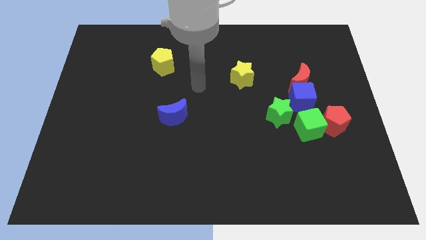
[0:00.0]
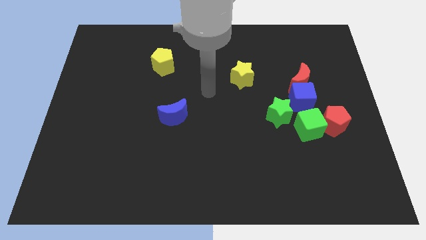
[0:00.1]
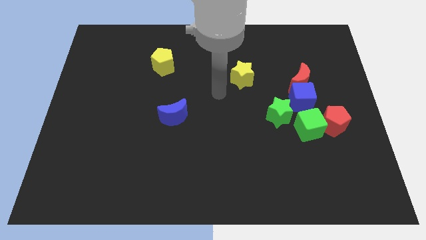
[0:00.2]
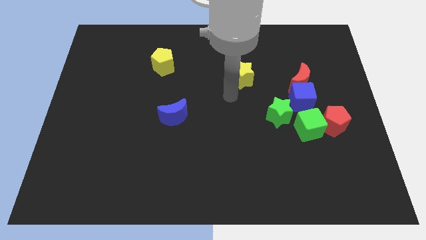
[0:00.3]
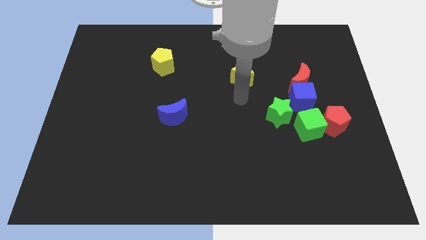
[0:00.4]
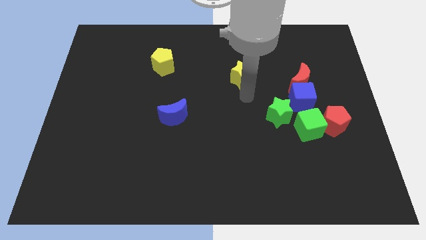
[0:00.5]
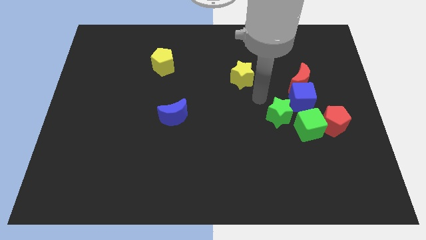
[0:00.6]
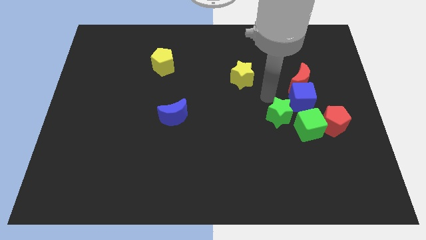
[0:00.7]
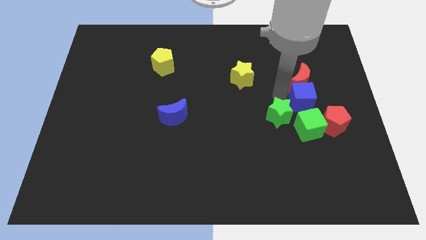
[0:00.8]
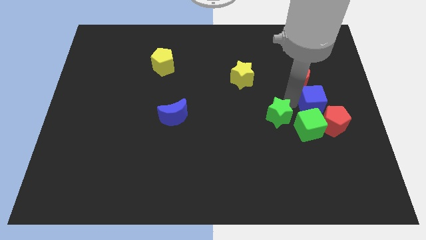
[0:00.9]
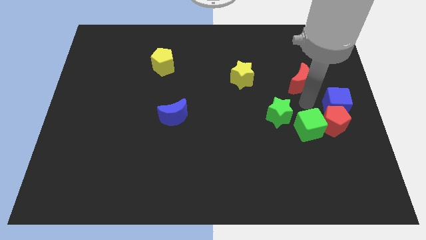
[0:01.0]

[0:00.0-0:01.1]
move the red moon away from the blue cube

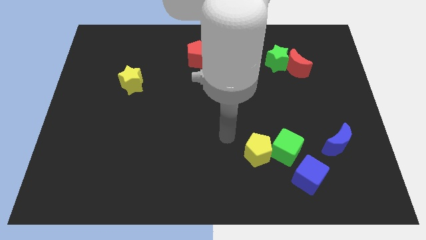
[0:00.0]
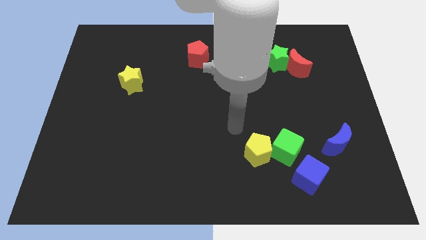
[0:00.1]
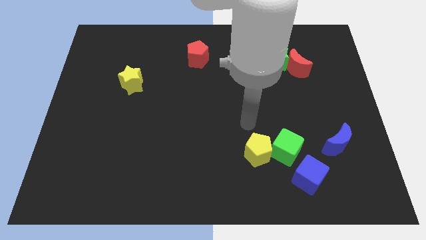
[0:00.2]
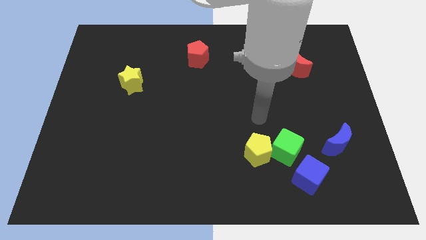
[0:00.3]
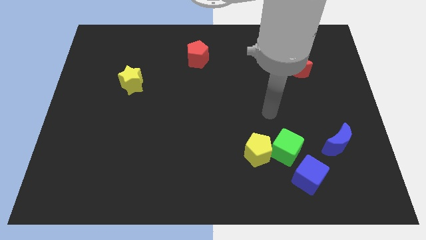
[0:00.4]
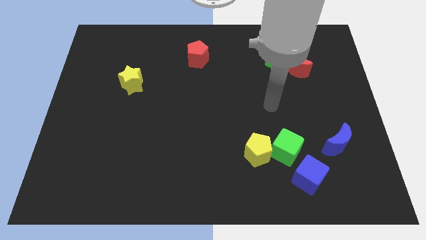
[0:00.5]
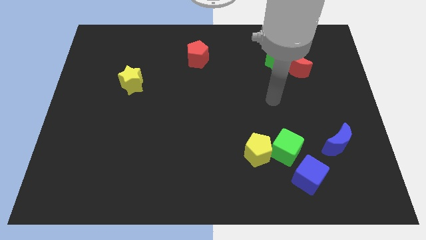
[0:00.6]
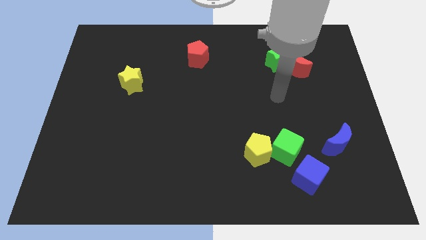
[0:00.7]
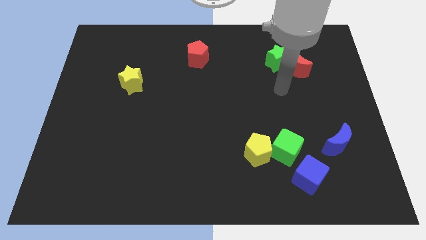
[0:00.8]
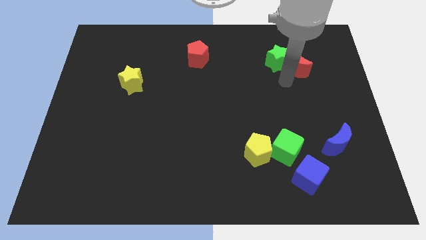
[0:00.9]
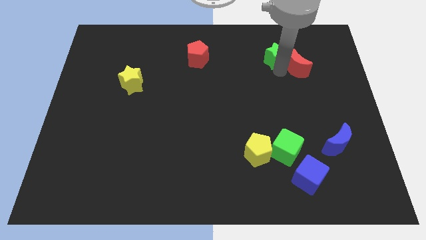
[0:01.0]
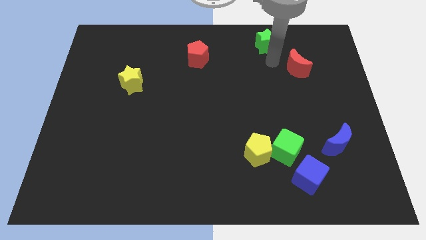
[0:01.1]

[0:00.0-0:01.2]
pull the red moon apart from the green star

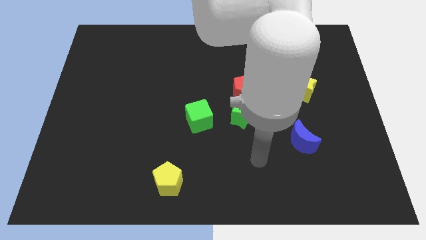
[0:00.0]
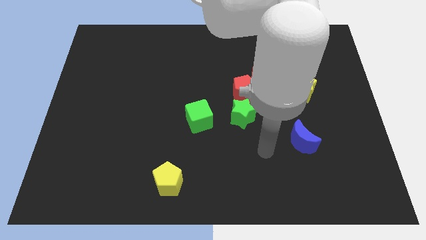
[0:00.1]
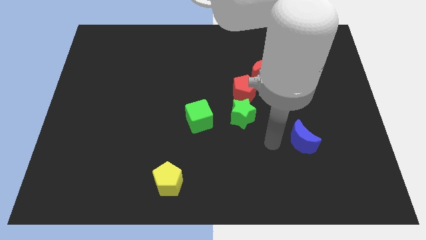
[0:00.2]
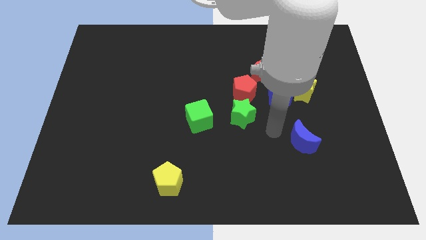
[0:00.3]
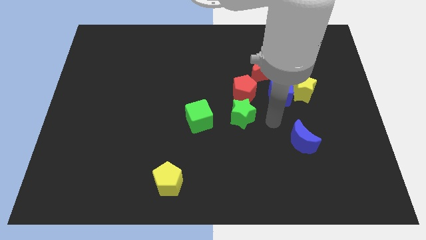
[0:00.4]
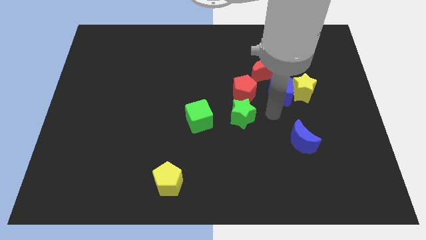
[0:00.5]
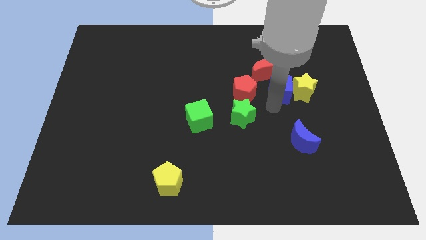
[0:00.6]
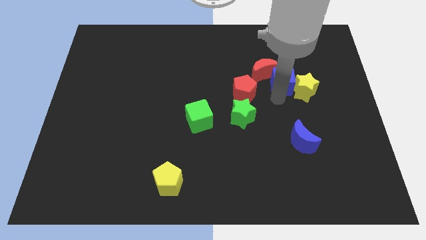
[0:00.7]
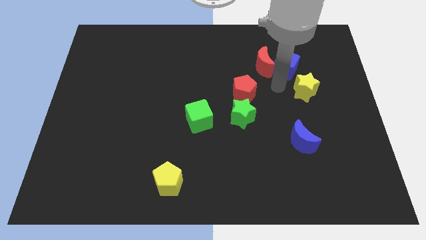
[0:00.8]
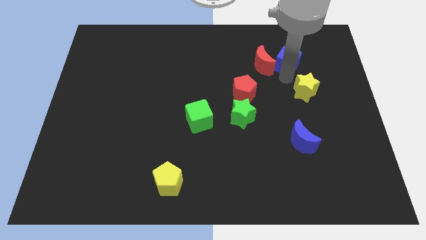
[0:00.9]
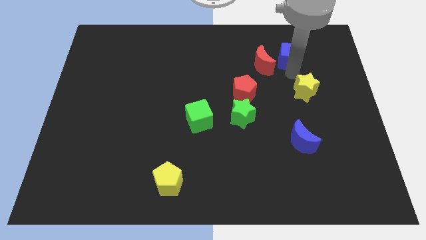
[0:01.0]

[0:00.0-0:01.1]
separate the yellow star from the blue cube

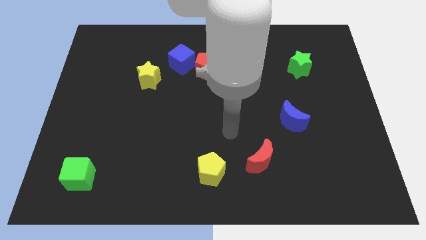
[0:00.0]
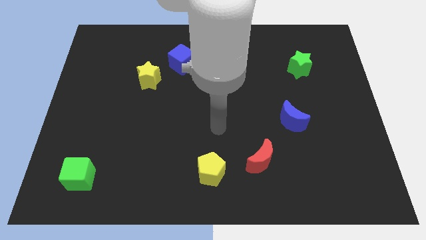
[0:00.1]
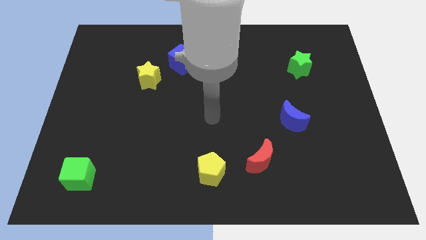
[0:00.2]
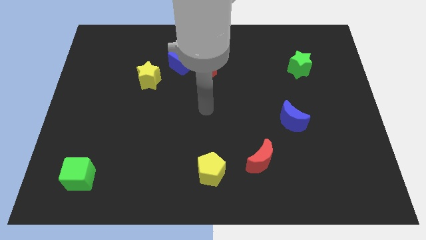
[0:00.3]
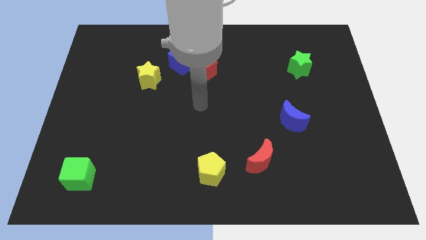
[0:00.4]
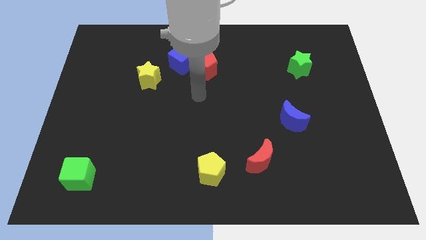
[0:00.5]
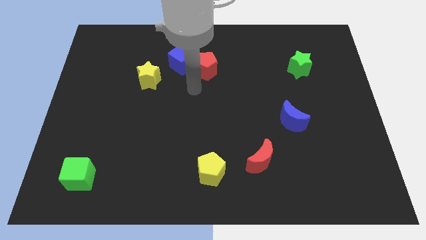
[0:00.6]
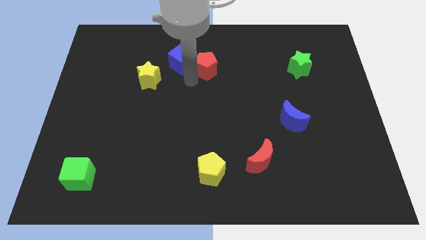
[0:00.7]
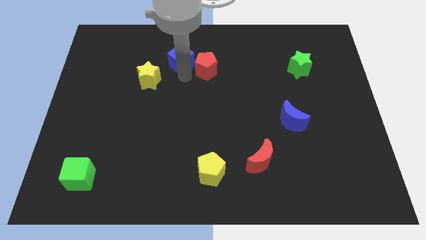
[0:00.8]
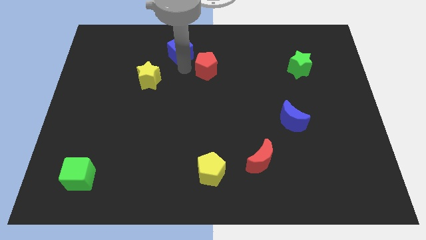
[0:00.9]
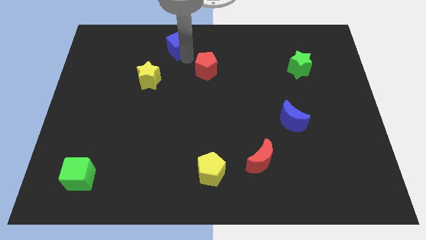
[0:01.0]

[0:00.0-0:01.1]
move the red pentagon away from the blue cube

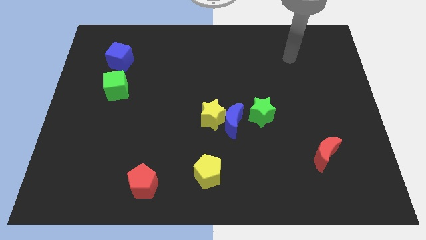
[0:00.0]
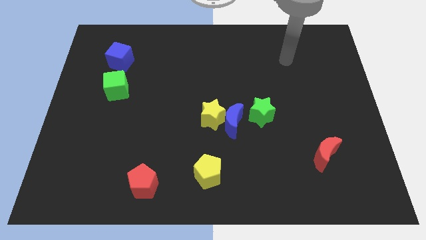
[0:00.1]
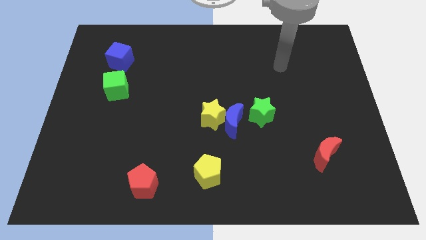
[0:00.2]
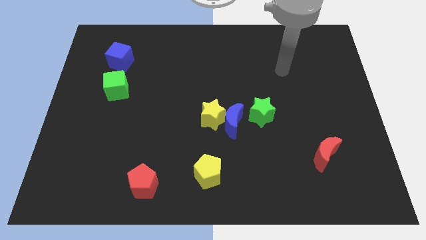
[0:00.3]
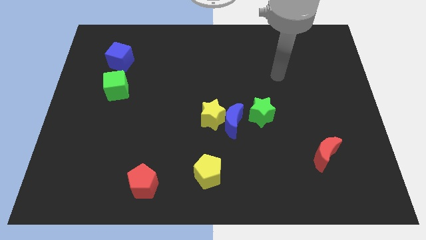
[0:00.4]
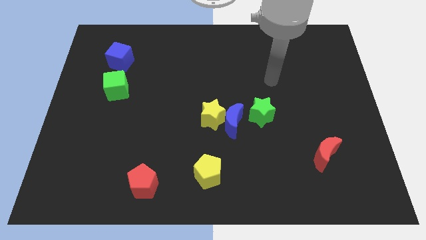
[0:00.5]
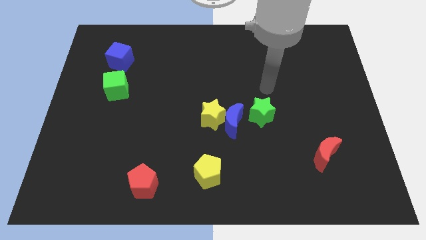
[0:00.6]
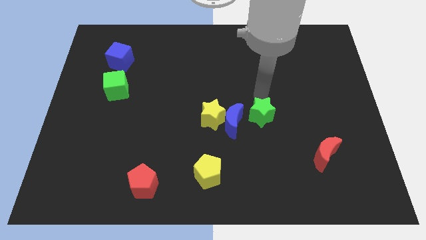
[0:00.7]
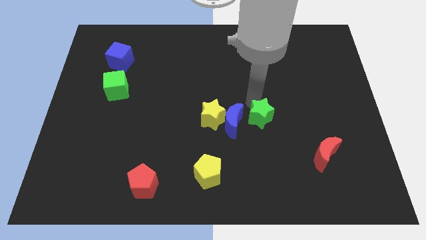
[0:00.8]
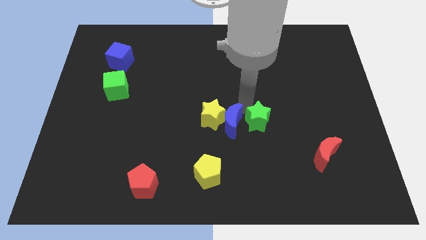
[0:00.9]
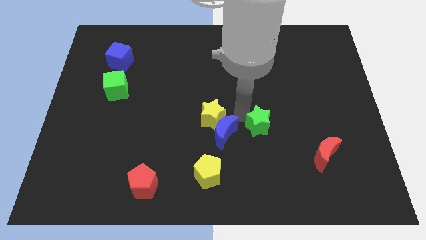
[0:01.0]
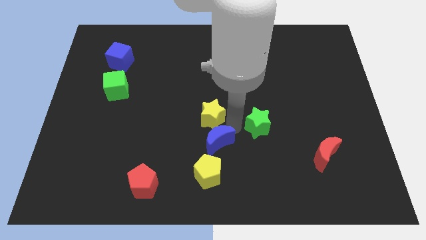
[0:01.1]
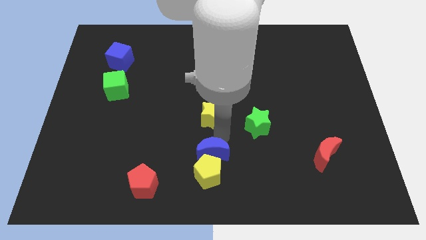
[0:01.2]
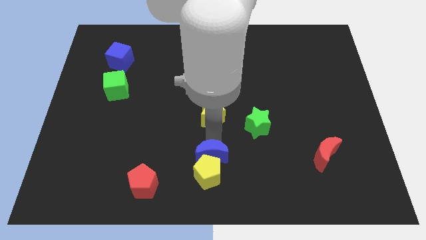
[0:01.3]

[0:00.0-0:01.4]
move the yellow star away from the blue moon

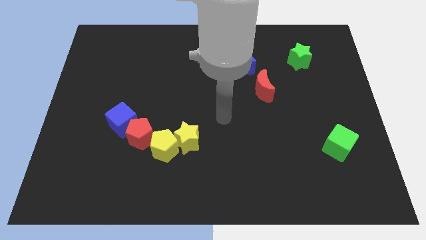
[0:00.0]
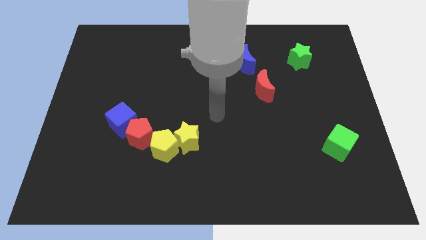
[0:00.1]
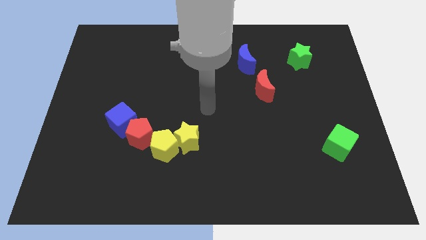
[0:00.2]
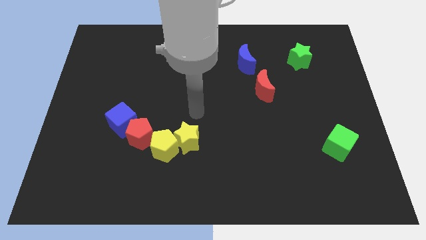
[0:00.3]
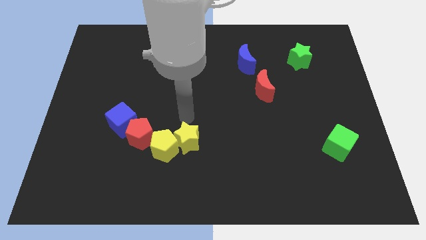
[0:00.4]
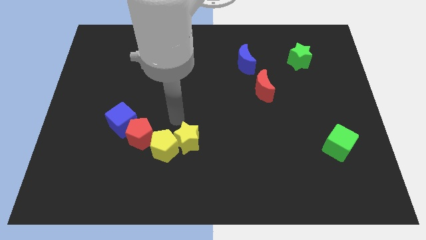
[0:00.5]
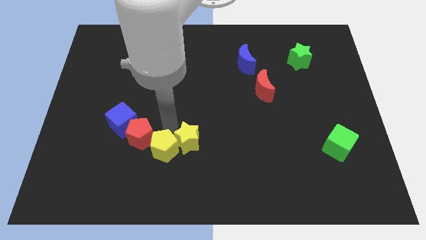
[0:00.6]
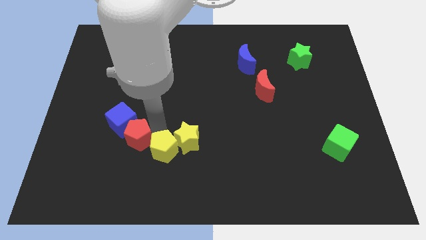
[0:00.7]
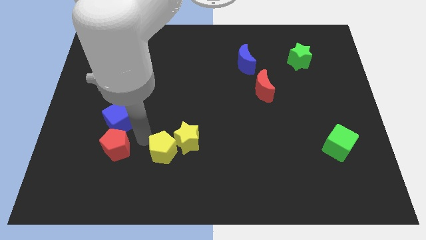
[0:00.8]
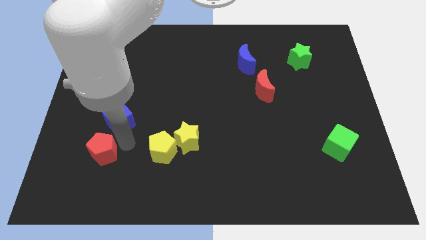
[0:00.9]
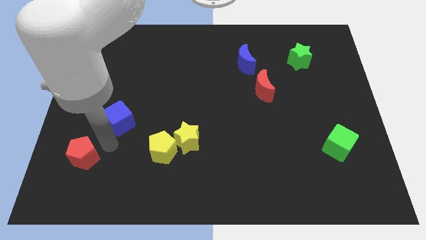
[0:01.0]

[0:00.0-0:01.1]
move the blue cube away from the red pentagon

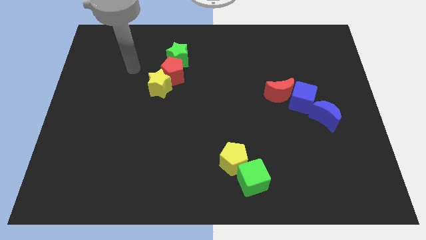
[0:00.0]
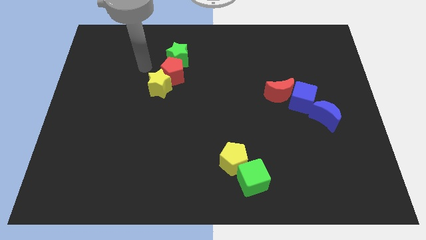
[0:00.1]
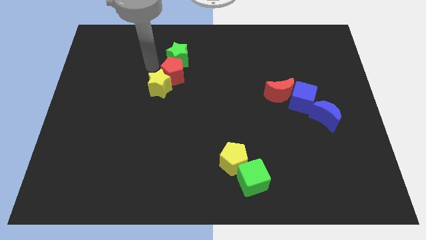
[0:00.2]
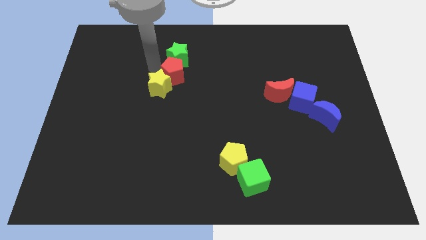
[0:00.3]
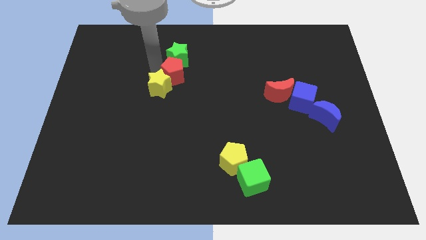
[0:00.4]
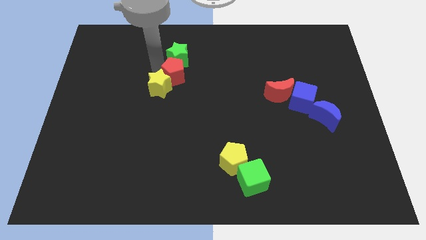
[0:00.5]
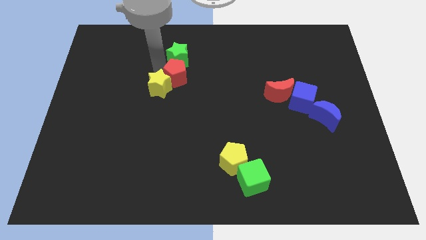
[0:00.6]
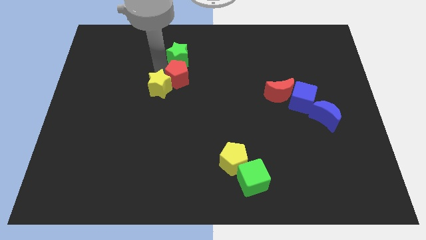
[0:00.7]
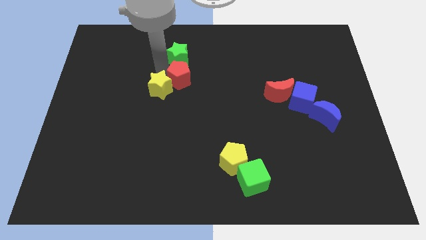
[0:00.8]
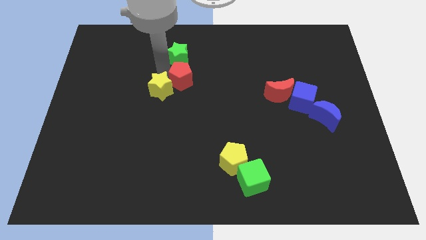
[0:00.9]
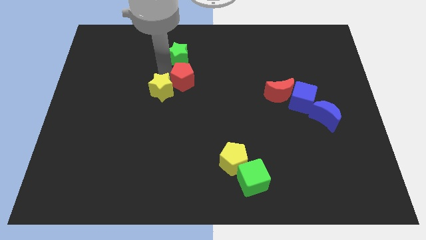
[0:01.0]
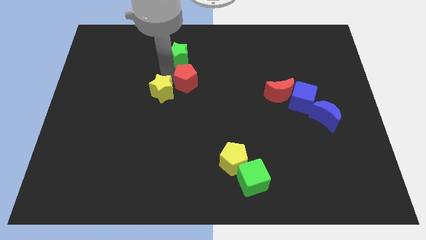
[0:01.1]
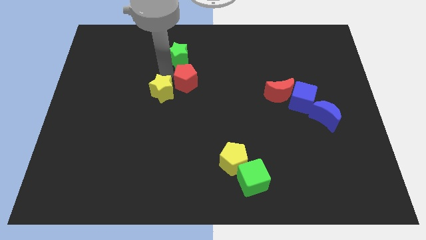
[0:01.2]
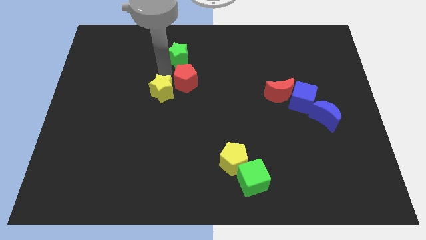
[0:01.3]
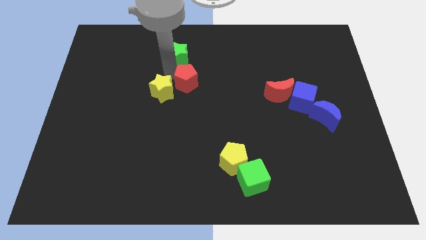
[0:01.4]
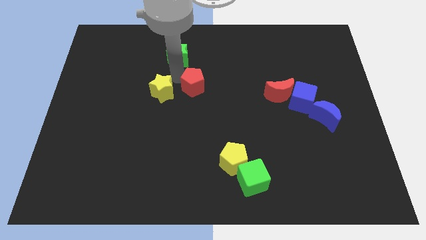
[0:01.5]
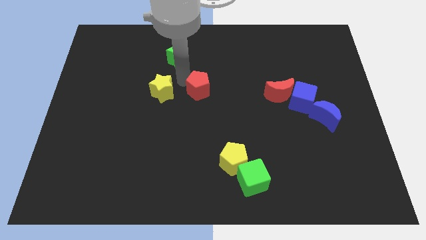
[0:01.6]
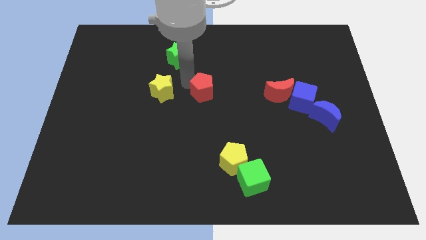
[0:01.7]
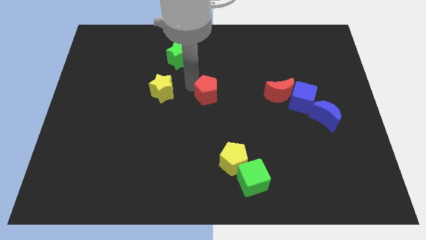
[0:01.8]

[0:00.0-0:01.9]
pull the red pentagon apart from the yellow star and green star

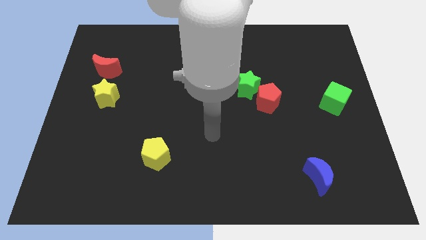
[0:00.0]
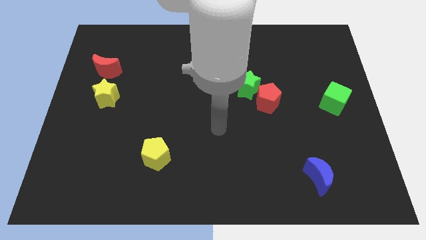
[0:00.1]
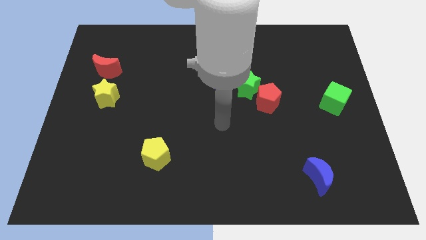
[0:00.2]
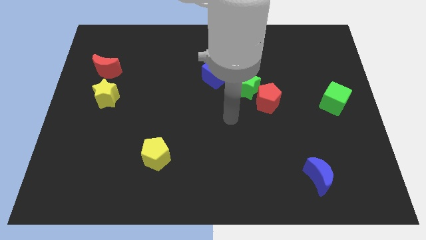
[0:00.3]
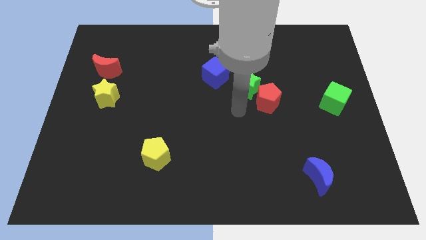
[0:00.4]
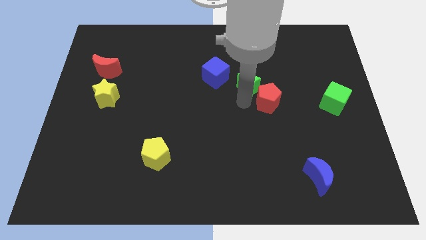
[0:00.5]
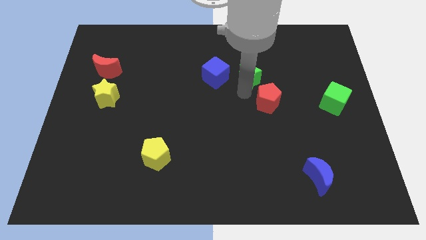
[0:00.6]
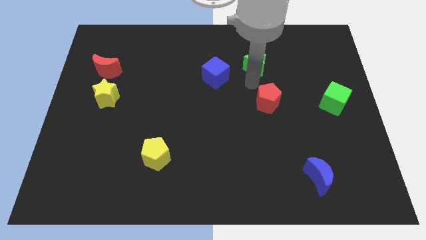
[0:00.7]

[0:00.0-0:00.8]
separate the red pentagon from the green star
